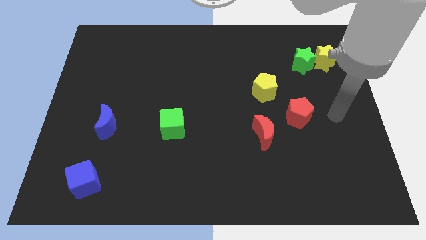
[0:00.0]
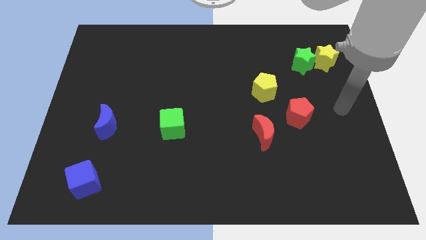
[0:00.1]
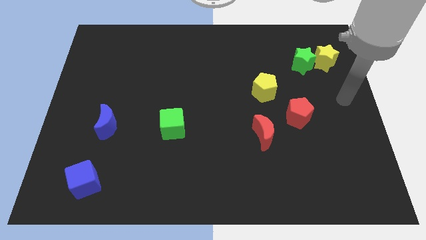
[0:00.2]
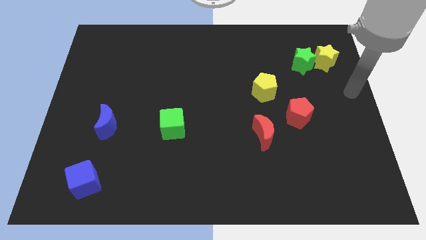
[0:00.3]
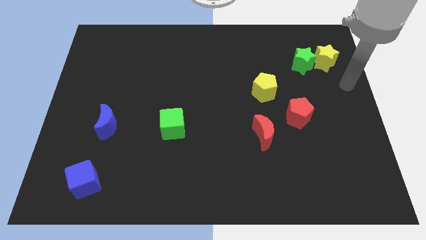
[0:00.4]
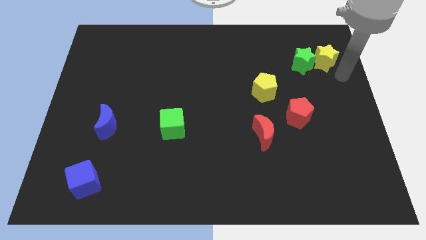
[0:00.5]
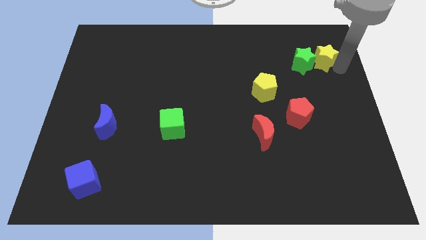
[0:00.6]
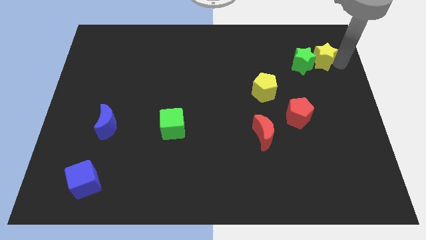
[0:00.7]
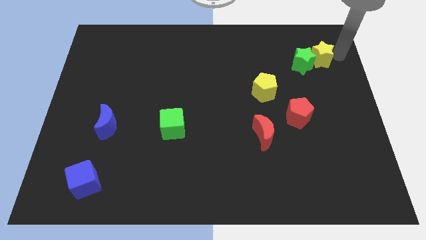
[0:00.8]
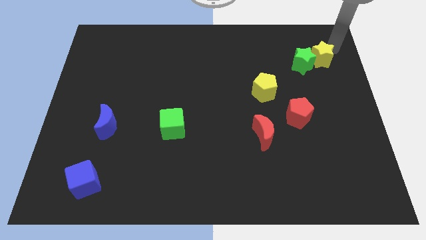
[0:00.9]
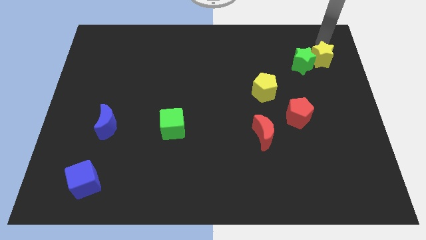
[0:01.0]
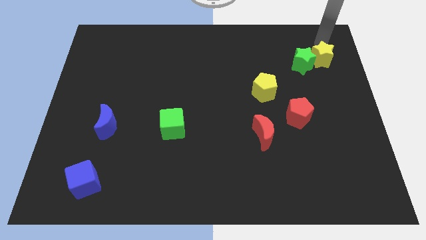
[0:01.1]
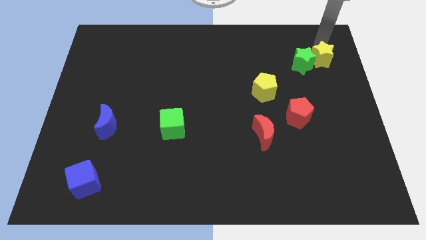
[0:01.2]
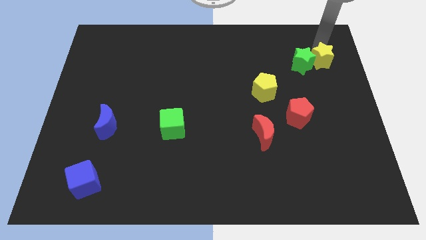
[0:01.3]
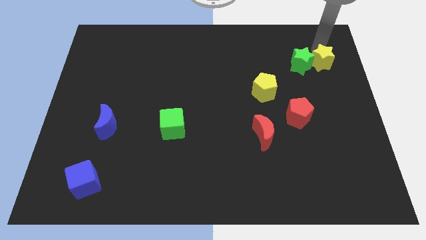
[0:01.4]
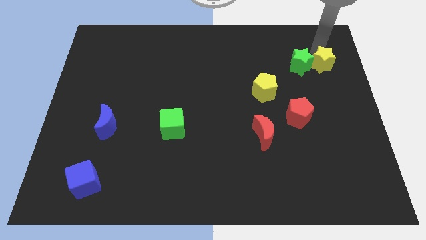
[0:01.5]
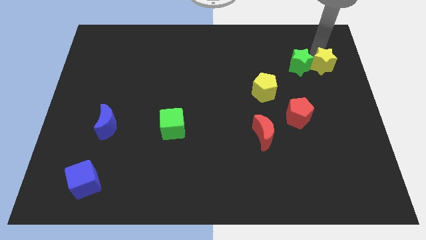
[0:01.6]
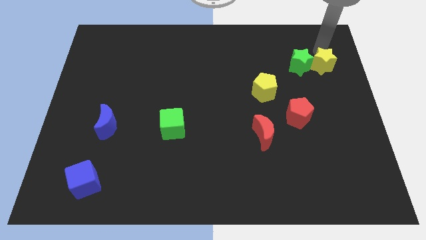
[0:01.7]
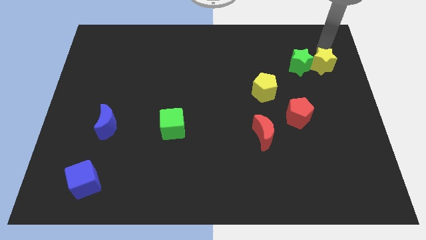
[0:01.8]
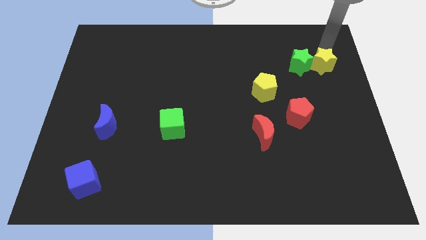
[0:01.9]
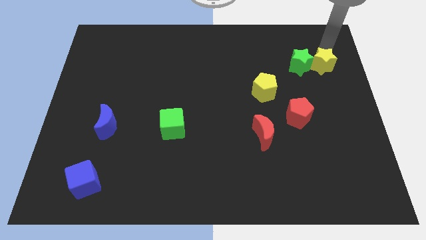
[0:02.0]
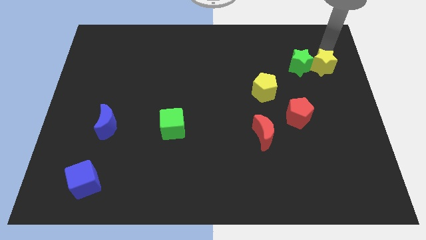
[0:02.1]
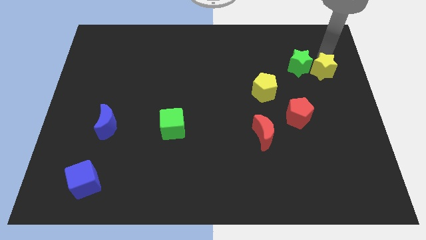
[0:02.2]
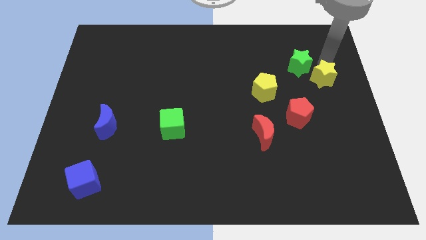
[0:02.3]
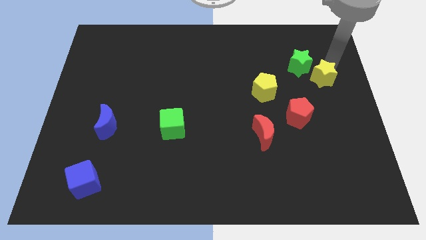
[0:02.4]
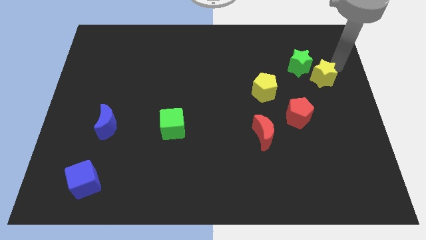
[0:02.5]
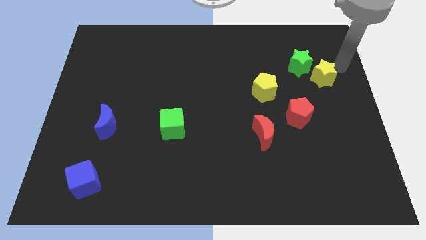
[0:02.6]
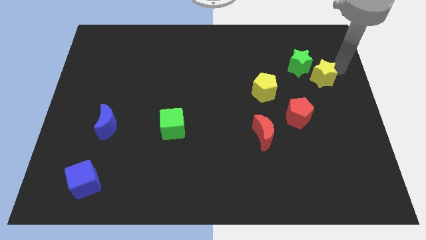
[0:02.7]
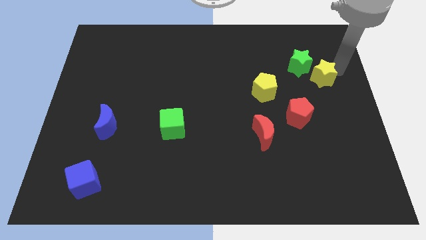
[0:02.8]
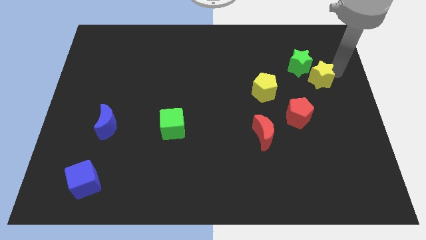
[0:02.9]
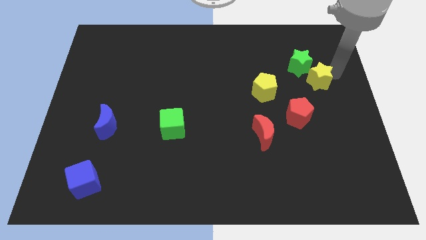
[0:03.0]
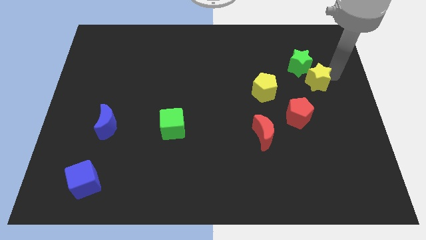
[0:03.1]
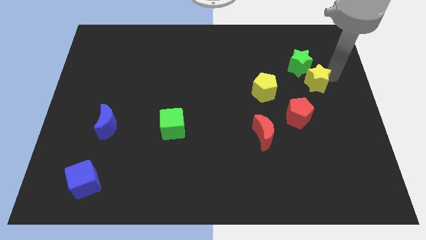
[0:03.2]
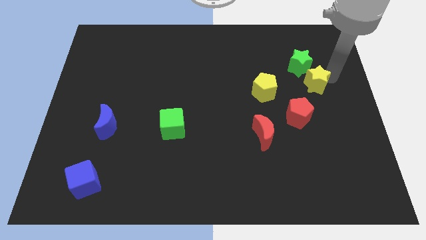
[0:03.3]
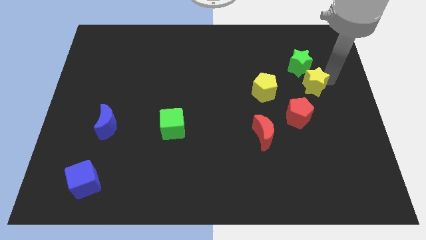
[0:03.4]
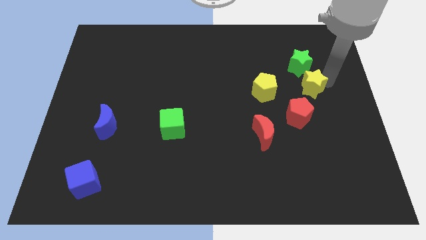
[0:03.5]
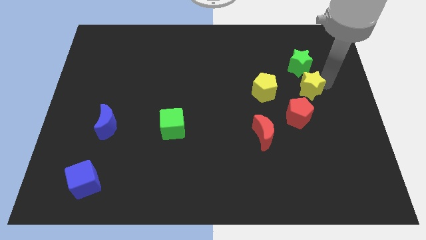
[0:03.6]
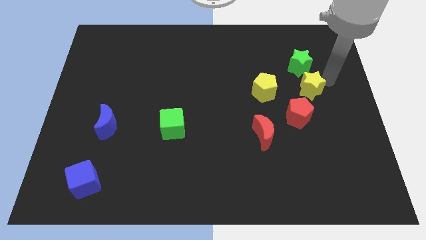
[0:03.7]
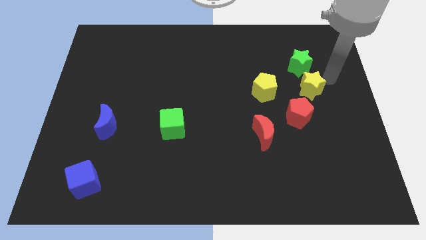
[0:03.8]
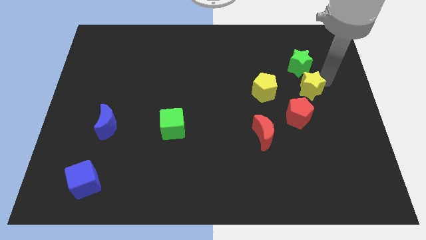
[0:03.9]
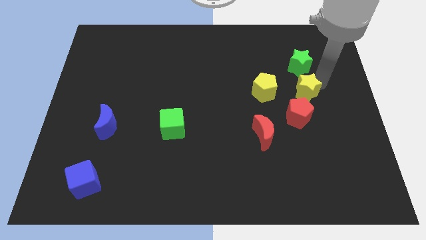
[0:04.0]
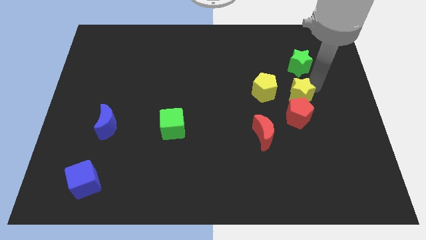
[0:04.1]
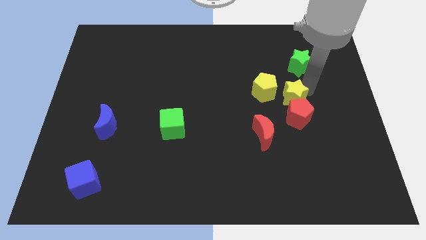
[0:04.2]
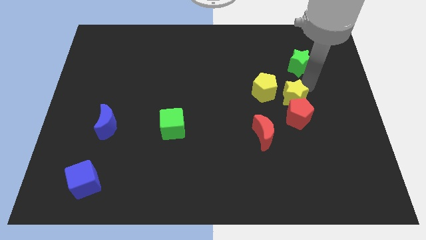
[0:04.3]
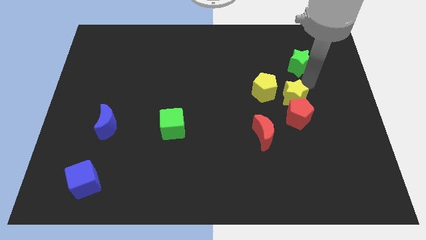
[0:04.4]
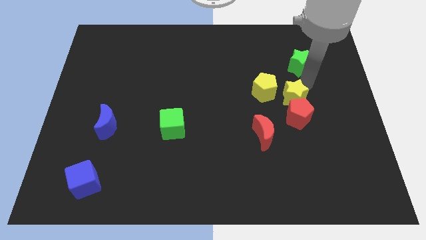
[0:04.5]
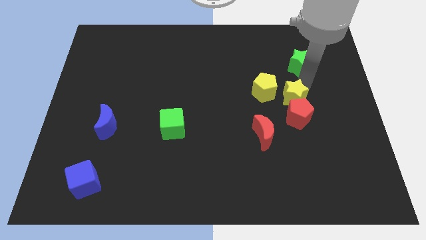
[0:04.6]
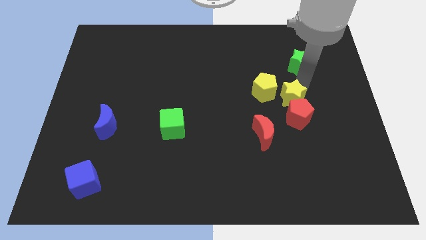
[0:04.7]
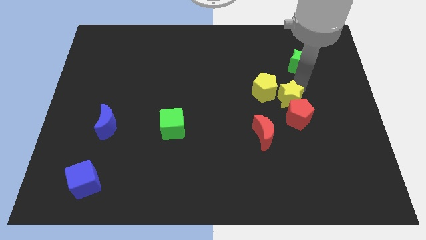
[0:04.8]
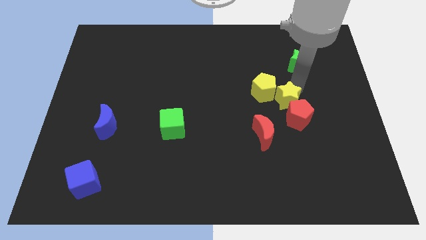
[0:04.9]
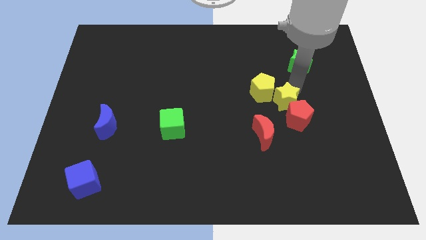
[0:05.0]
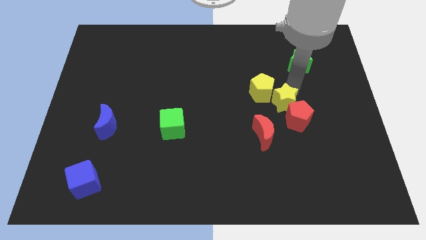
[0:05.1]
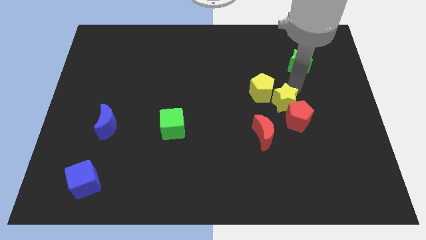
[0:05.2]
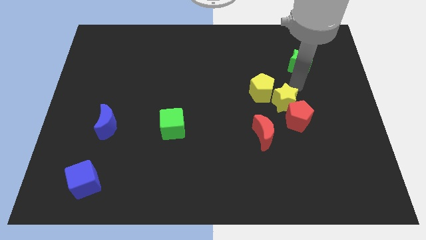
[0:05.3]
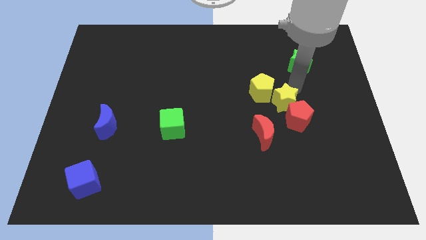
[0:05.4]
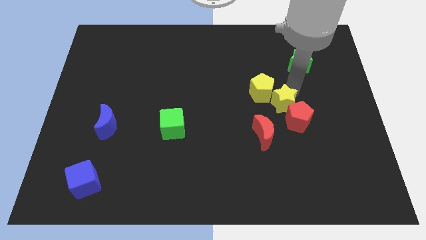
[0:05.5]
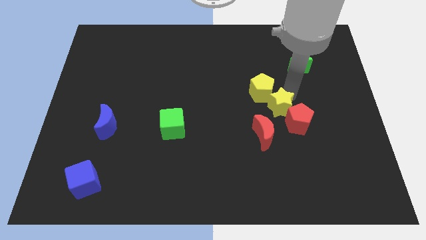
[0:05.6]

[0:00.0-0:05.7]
slide the yellow star diagonally down and to the left

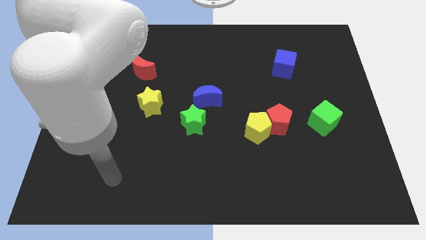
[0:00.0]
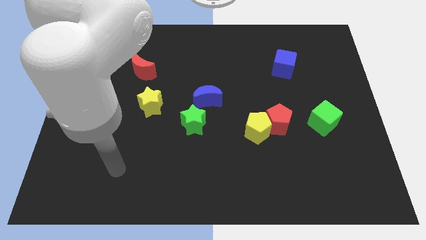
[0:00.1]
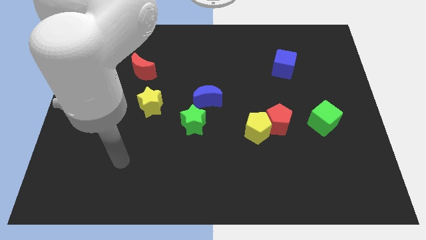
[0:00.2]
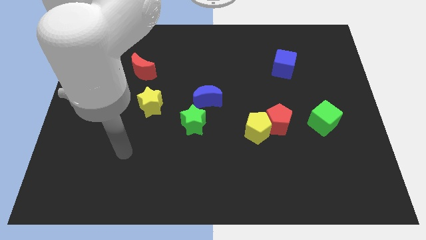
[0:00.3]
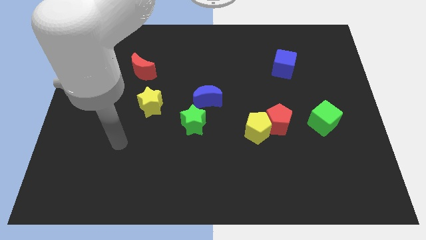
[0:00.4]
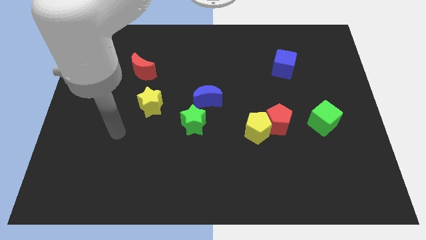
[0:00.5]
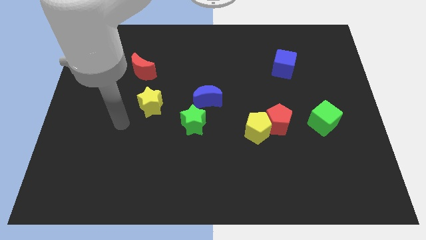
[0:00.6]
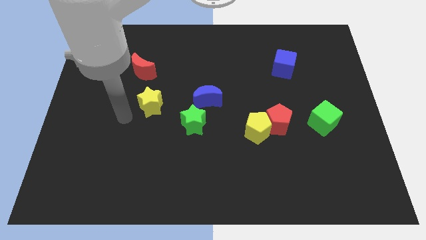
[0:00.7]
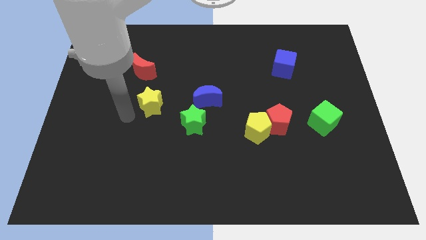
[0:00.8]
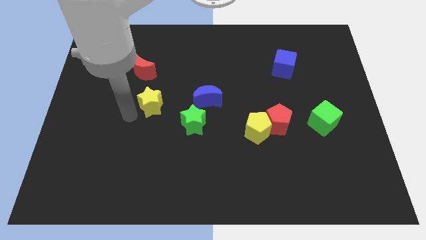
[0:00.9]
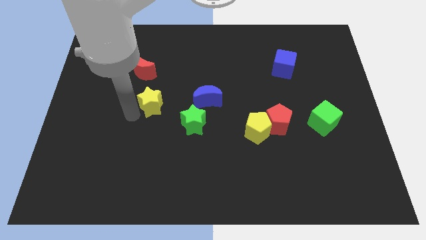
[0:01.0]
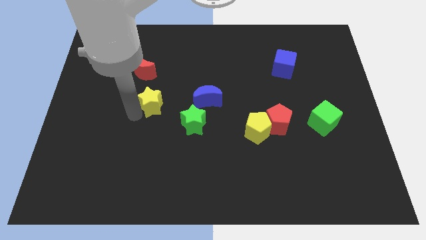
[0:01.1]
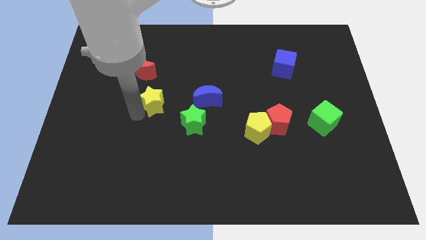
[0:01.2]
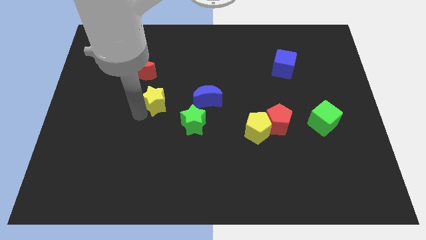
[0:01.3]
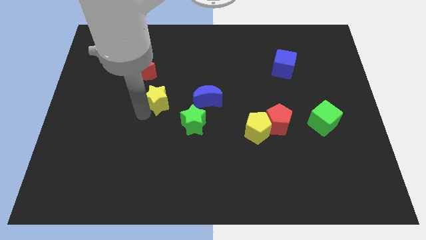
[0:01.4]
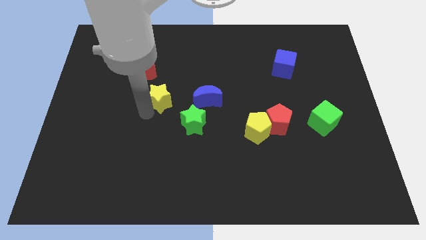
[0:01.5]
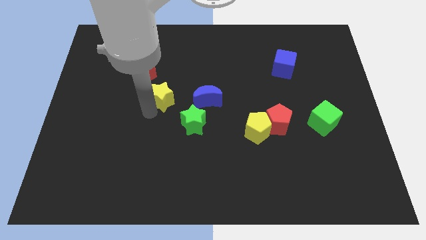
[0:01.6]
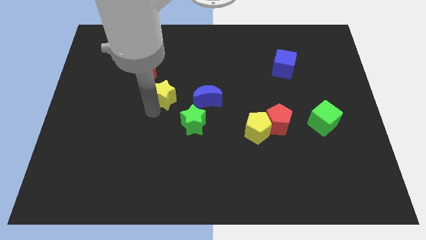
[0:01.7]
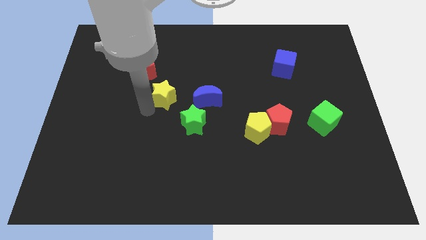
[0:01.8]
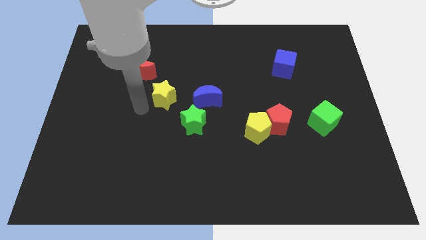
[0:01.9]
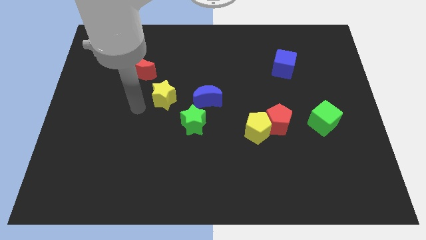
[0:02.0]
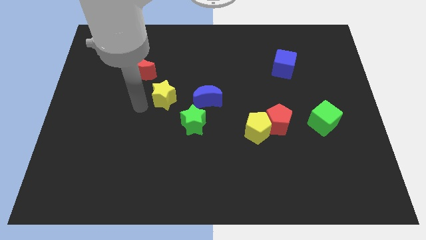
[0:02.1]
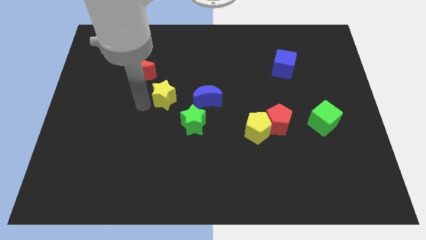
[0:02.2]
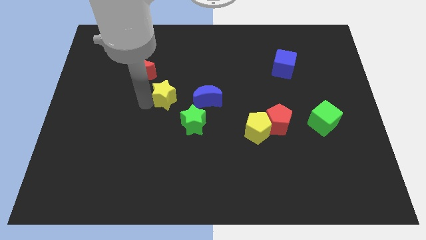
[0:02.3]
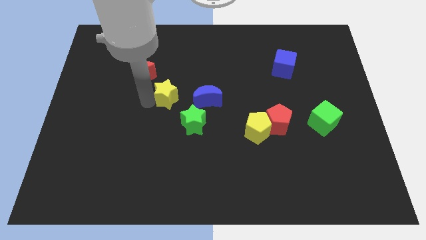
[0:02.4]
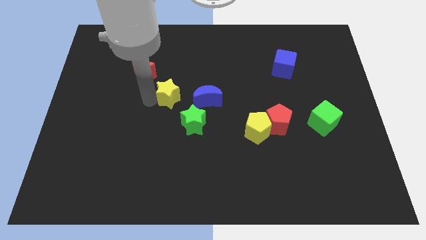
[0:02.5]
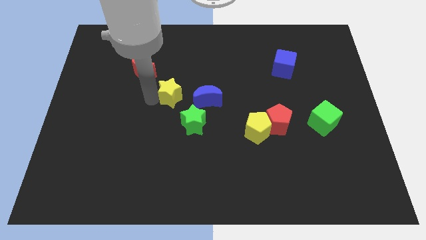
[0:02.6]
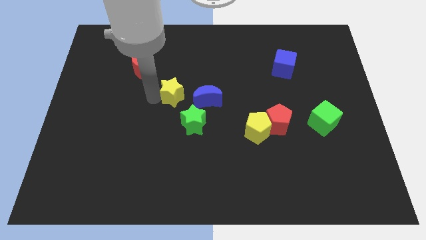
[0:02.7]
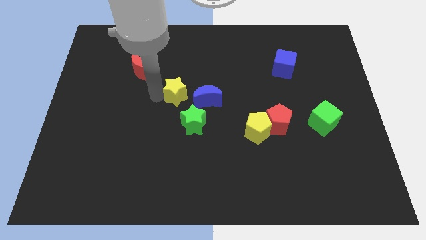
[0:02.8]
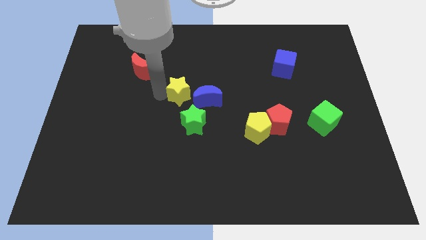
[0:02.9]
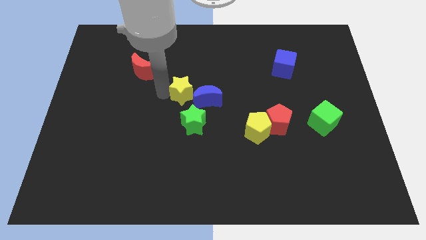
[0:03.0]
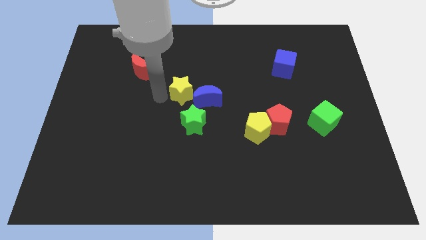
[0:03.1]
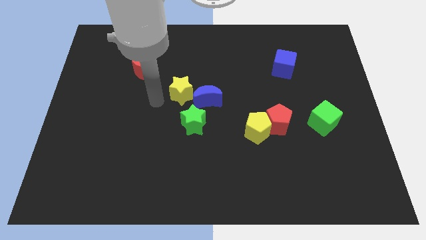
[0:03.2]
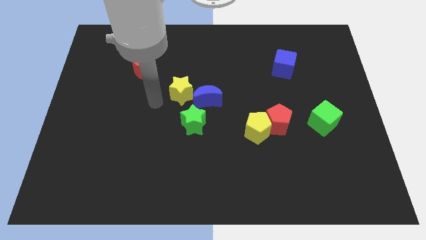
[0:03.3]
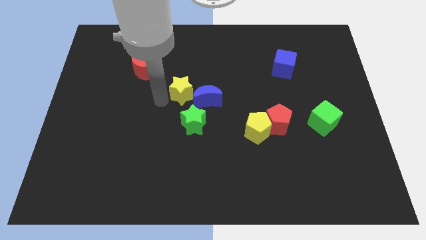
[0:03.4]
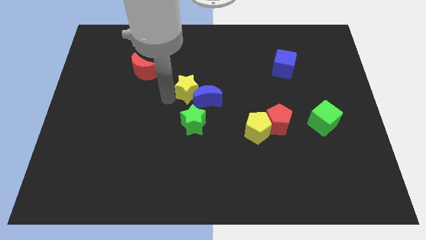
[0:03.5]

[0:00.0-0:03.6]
slightly push the yellow star right
